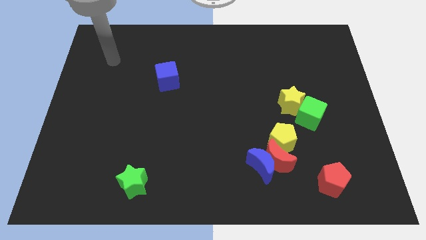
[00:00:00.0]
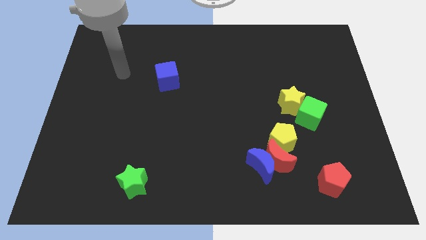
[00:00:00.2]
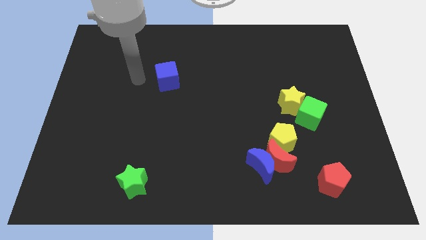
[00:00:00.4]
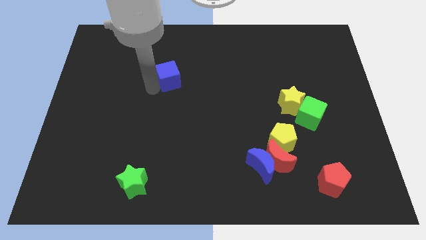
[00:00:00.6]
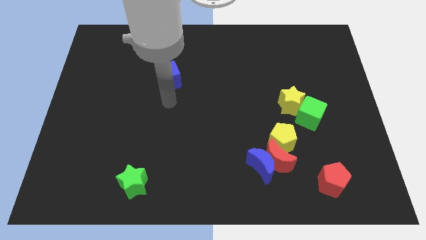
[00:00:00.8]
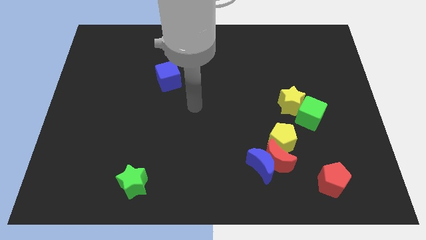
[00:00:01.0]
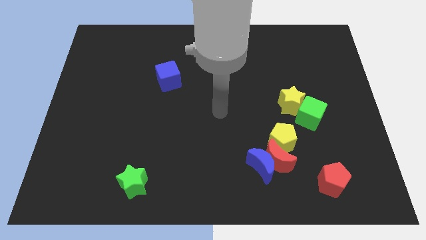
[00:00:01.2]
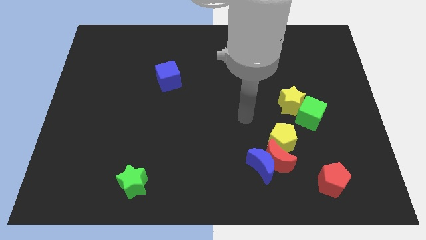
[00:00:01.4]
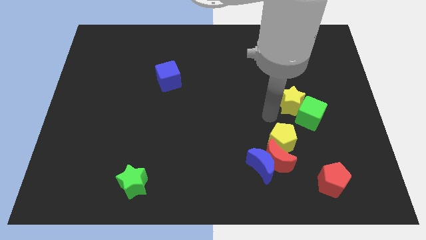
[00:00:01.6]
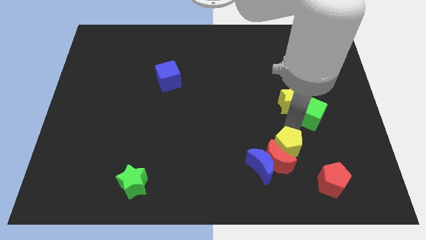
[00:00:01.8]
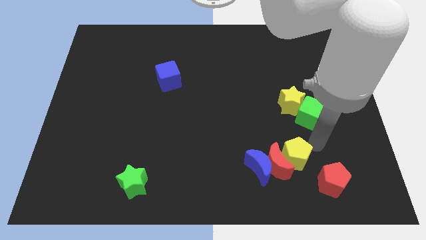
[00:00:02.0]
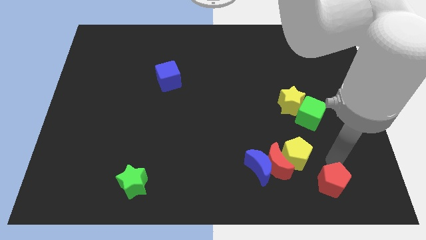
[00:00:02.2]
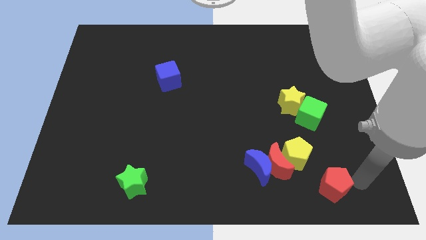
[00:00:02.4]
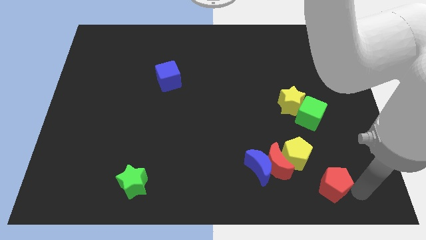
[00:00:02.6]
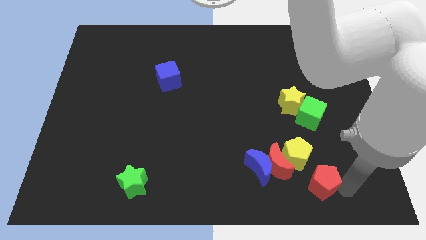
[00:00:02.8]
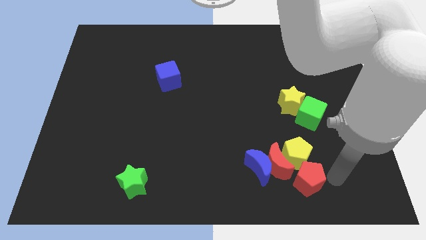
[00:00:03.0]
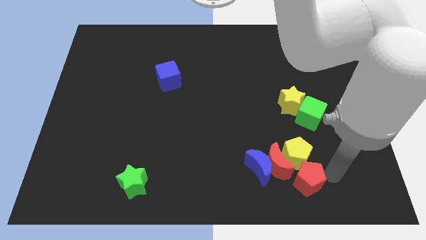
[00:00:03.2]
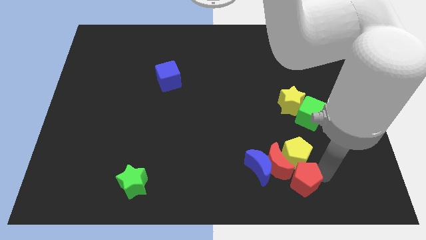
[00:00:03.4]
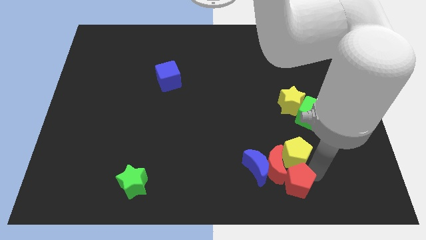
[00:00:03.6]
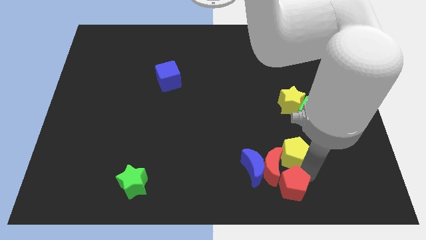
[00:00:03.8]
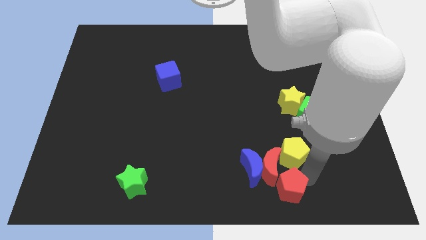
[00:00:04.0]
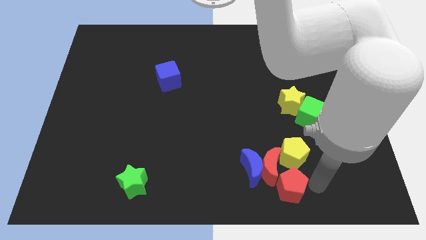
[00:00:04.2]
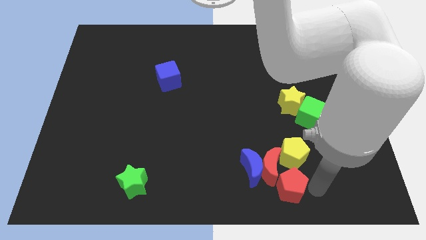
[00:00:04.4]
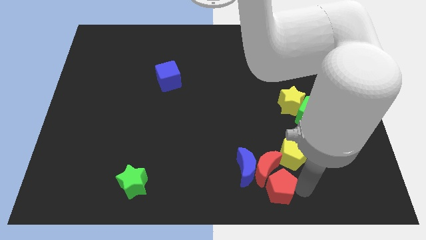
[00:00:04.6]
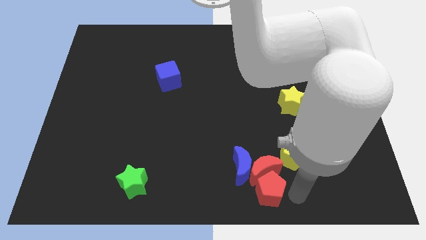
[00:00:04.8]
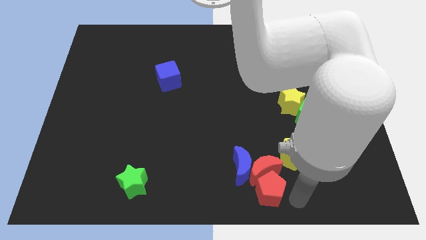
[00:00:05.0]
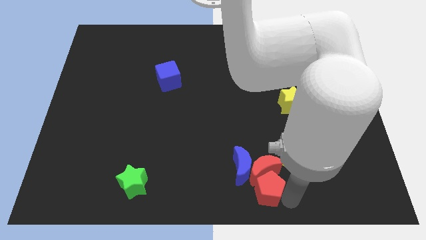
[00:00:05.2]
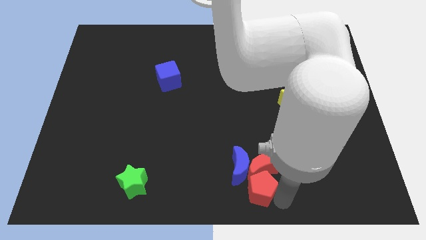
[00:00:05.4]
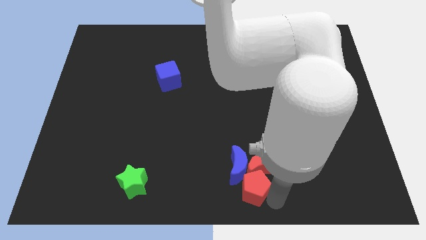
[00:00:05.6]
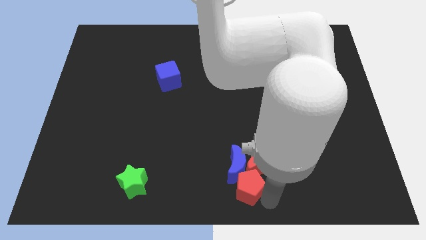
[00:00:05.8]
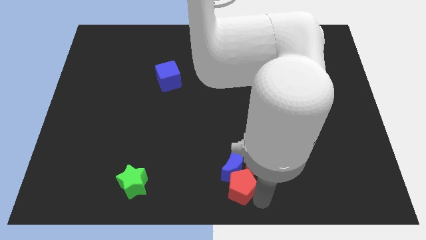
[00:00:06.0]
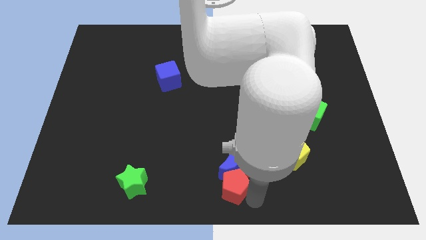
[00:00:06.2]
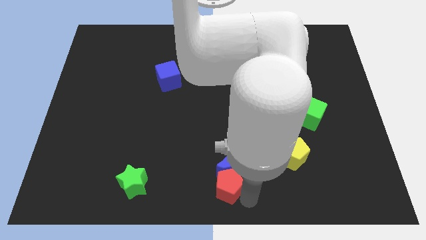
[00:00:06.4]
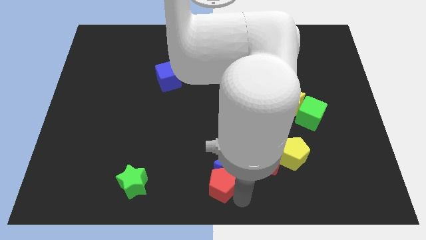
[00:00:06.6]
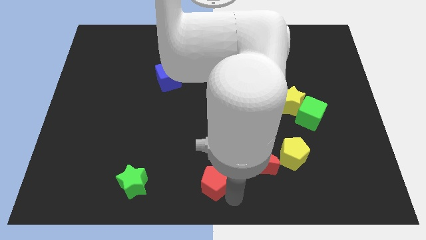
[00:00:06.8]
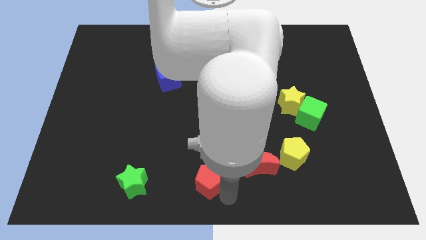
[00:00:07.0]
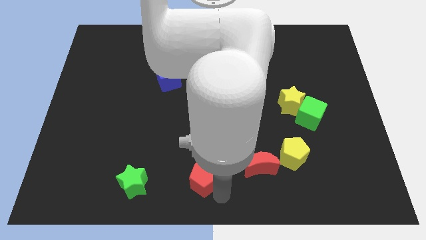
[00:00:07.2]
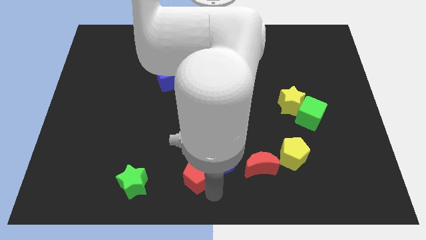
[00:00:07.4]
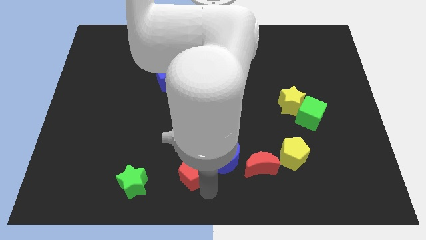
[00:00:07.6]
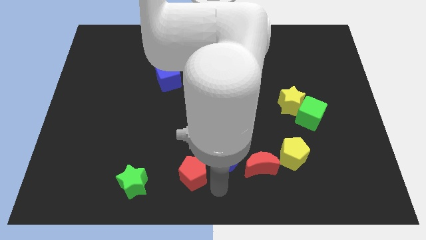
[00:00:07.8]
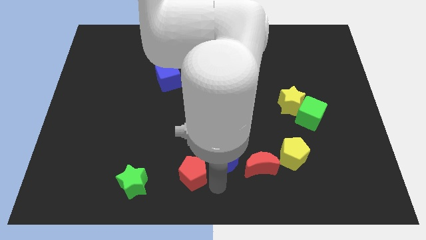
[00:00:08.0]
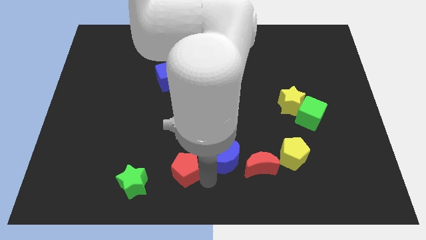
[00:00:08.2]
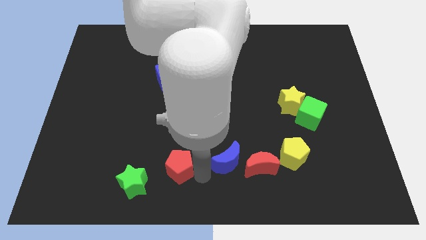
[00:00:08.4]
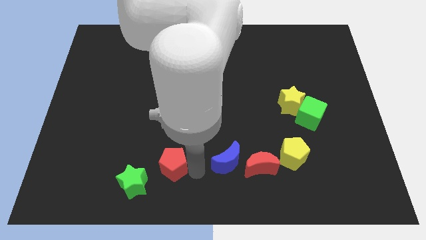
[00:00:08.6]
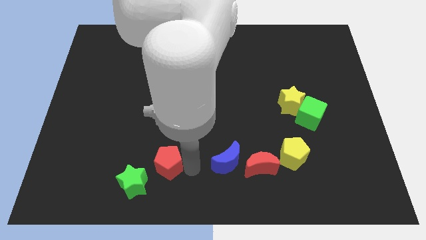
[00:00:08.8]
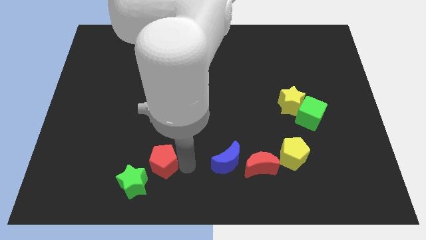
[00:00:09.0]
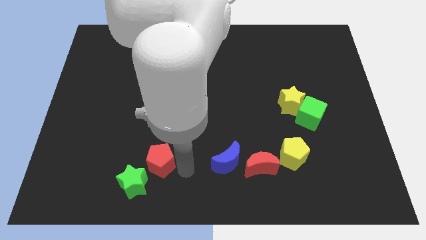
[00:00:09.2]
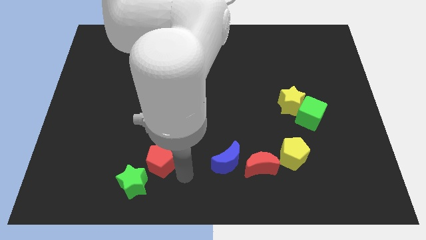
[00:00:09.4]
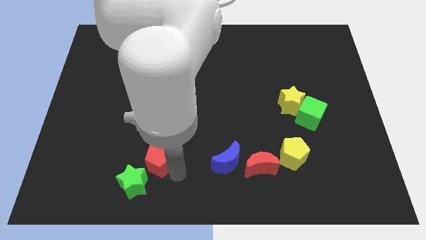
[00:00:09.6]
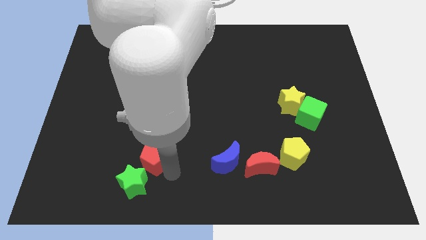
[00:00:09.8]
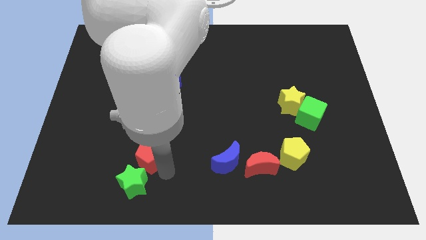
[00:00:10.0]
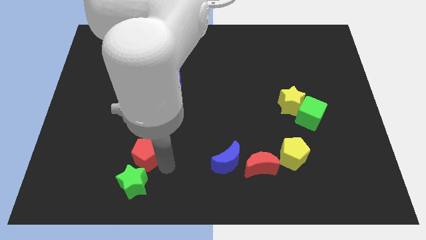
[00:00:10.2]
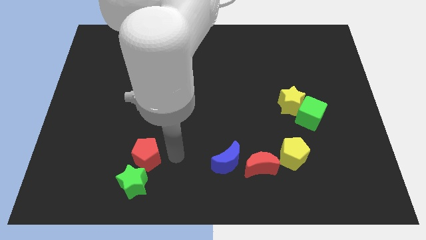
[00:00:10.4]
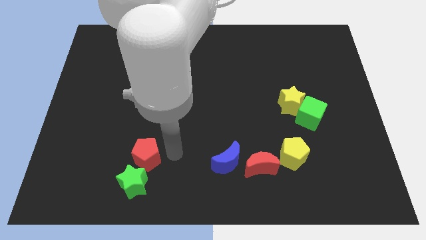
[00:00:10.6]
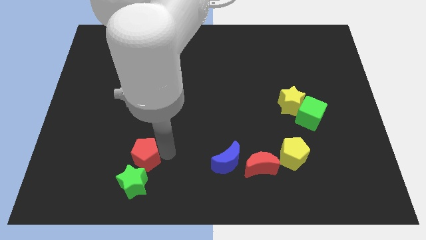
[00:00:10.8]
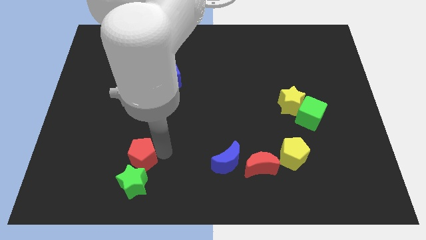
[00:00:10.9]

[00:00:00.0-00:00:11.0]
push the red pentagon to the top left of the green star

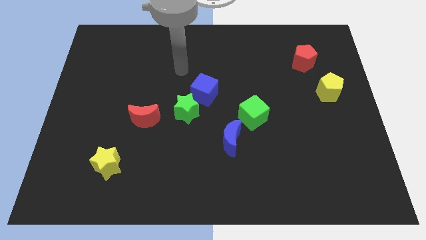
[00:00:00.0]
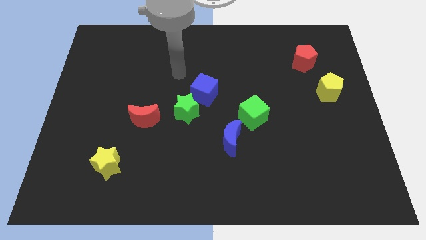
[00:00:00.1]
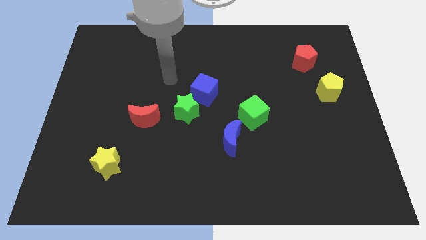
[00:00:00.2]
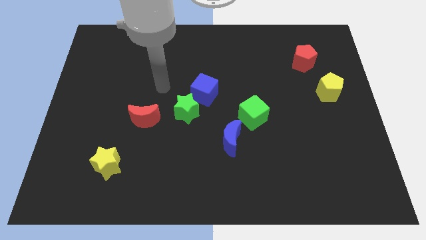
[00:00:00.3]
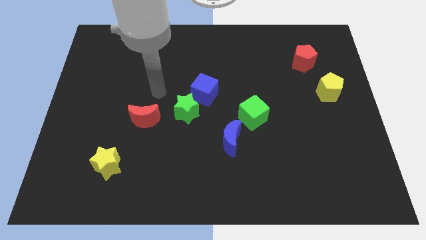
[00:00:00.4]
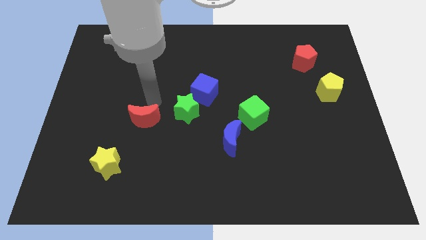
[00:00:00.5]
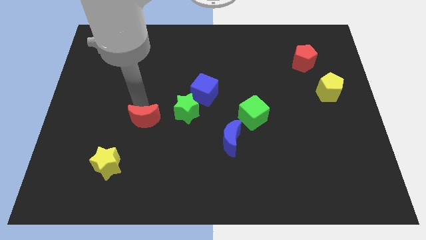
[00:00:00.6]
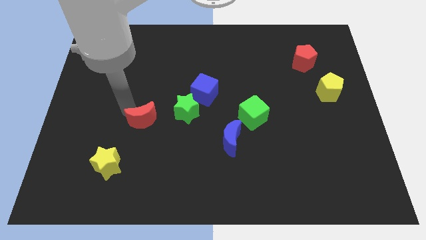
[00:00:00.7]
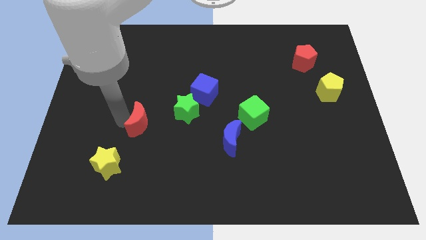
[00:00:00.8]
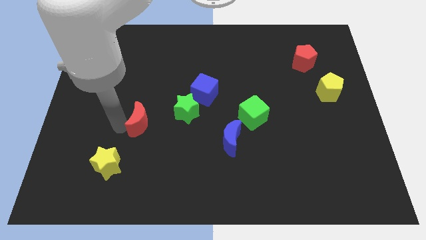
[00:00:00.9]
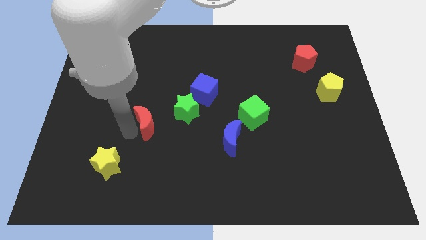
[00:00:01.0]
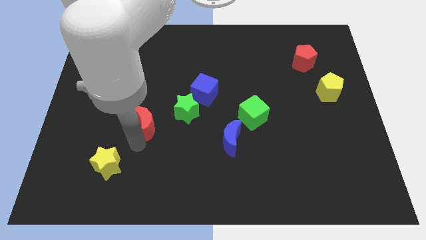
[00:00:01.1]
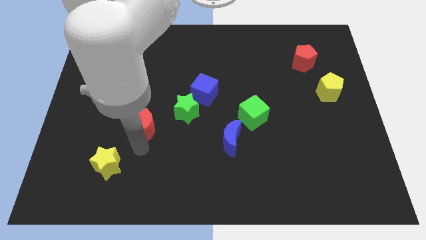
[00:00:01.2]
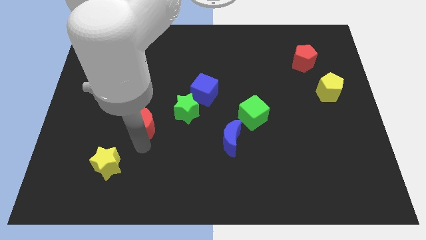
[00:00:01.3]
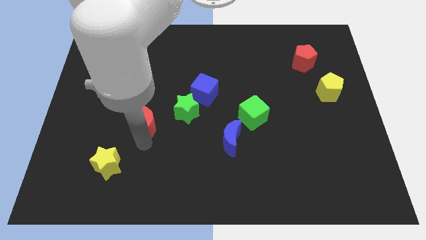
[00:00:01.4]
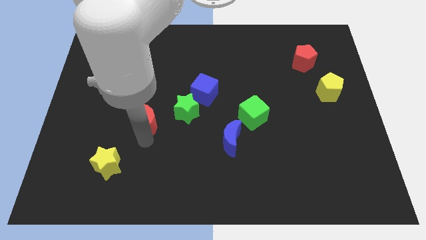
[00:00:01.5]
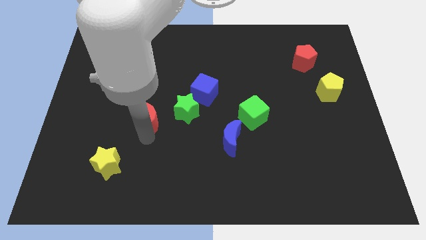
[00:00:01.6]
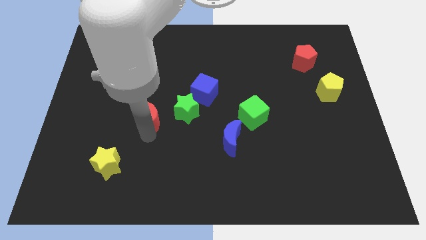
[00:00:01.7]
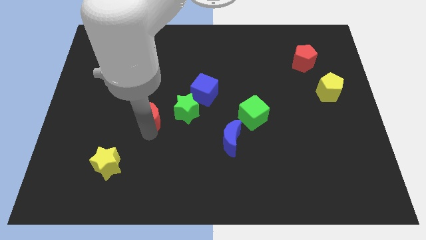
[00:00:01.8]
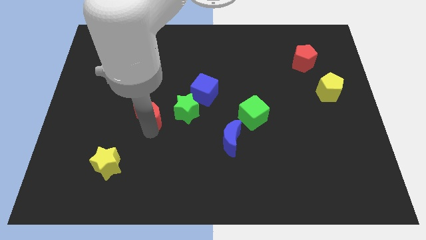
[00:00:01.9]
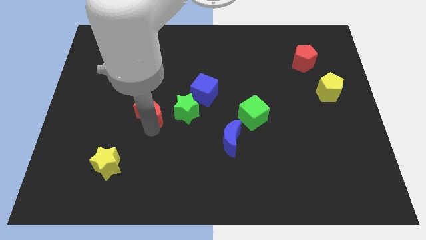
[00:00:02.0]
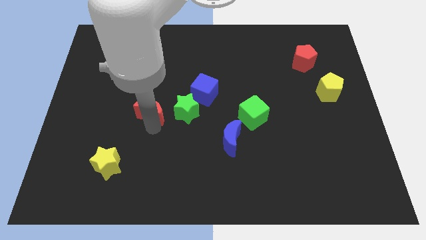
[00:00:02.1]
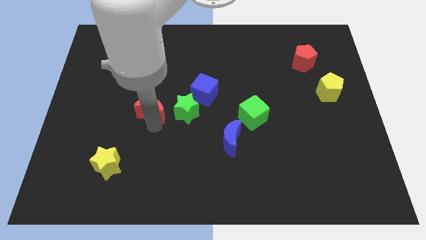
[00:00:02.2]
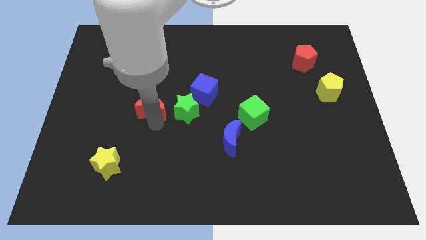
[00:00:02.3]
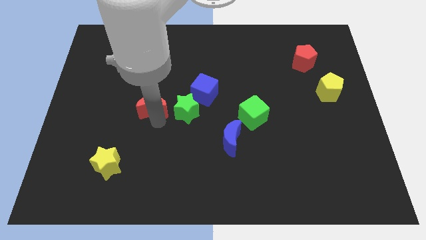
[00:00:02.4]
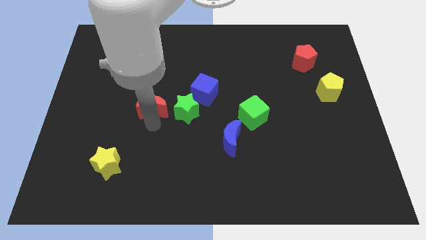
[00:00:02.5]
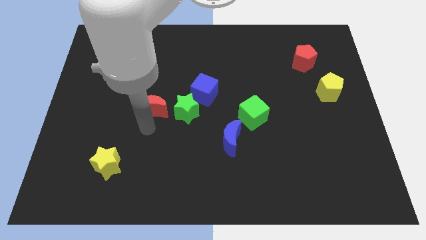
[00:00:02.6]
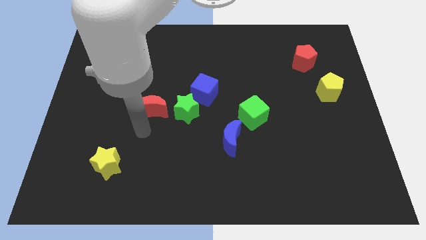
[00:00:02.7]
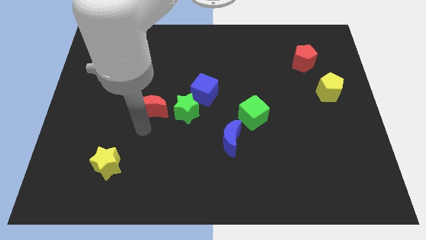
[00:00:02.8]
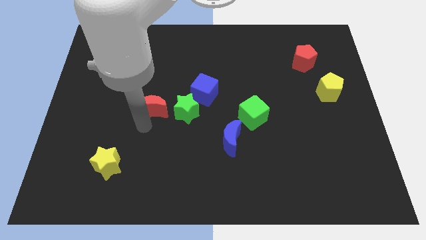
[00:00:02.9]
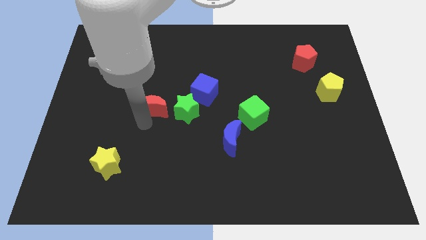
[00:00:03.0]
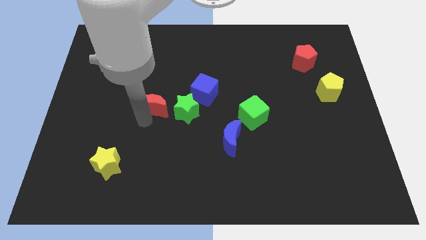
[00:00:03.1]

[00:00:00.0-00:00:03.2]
push the red moon just left of the blue cube
